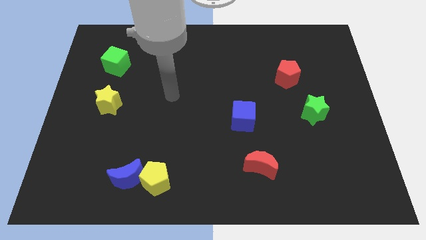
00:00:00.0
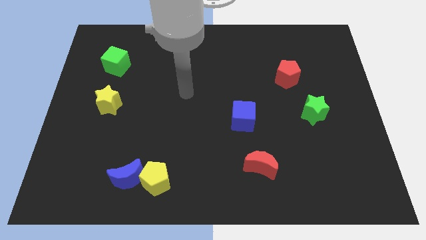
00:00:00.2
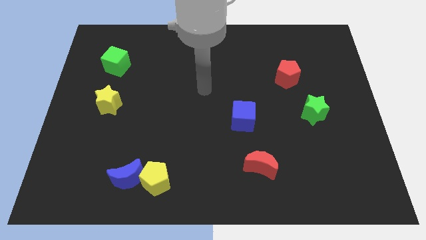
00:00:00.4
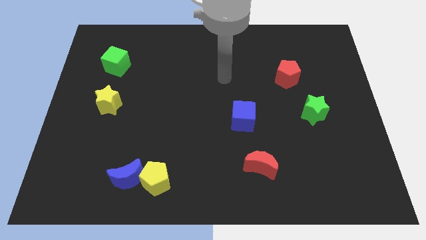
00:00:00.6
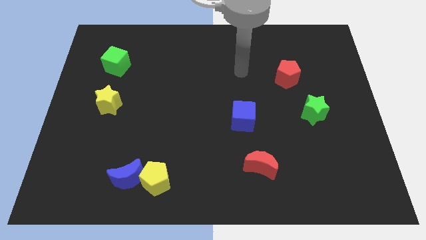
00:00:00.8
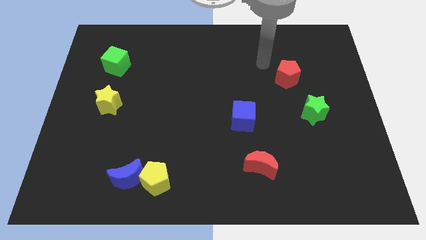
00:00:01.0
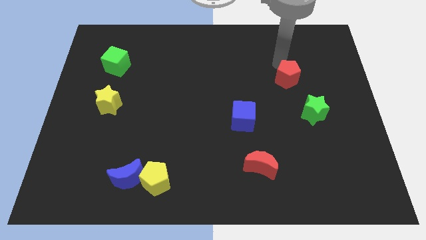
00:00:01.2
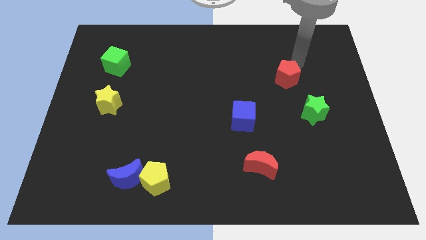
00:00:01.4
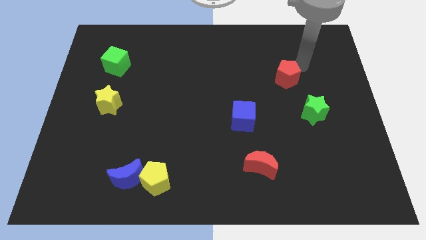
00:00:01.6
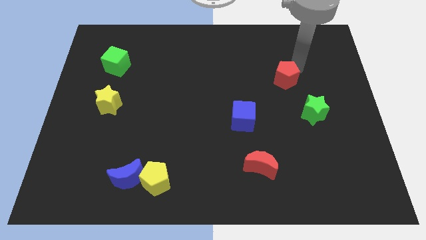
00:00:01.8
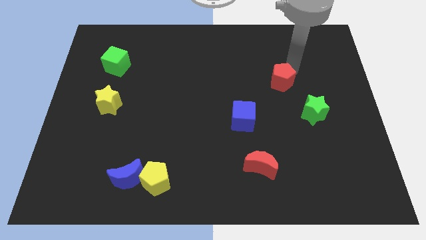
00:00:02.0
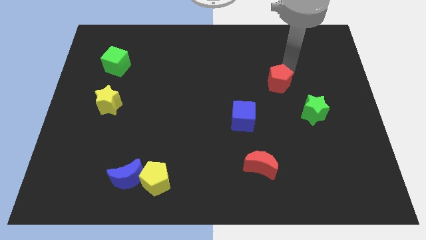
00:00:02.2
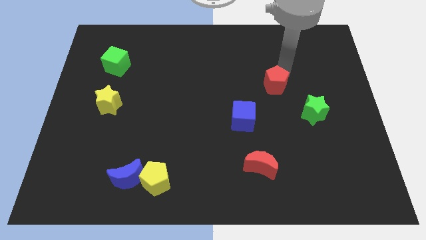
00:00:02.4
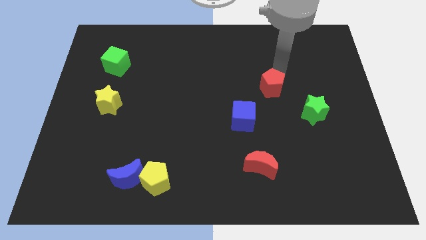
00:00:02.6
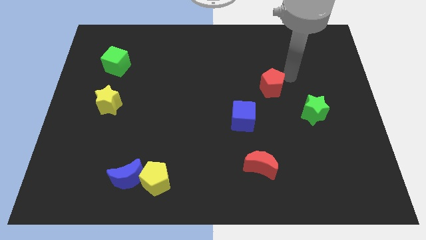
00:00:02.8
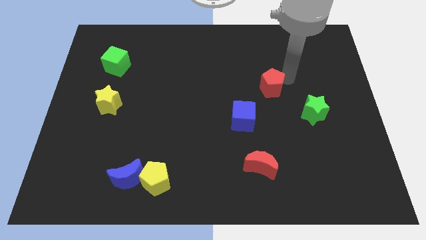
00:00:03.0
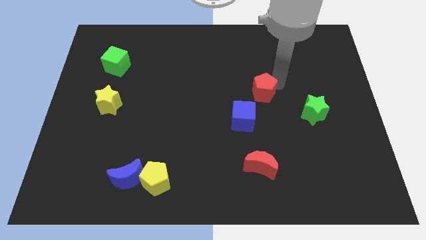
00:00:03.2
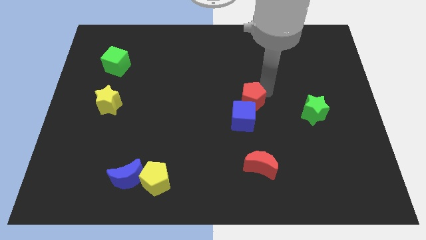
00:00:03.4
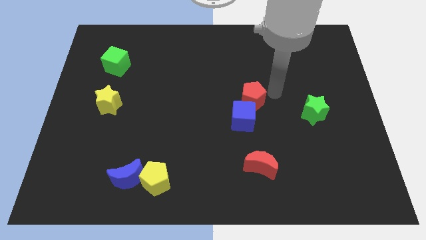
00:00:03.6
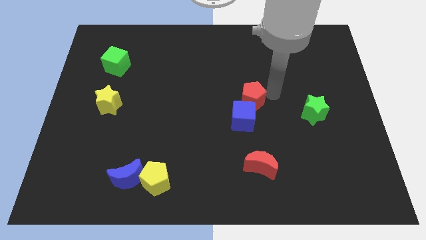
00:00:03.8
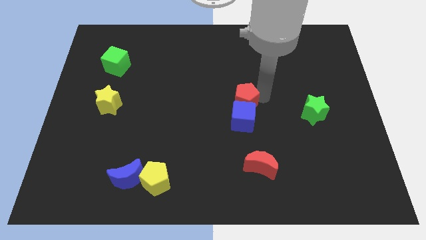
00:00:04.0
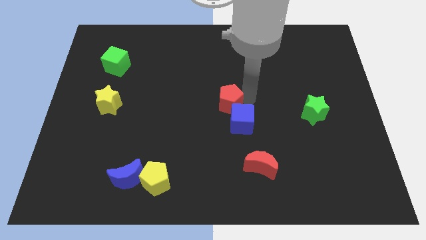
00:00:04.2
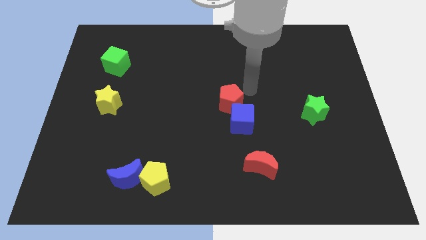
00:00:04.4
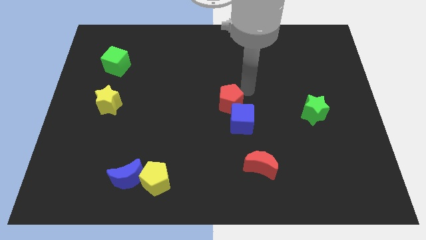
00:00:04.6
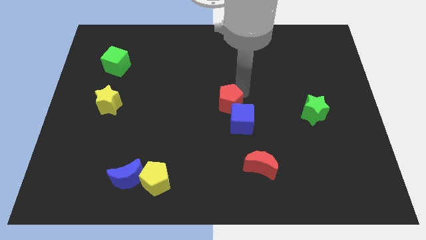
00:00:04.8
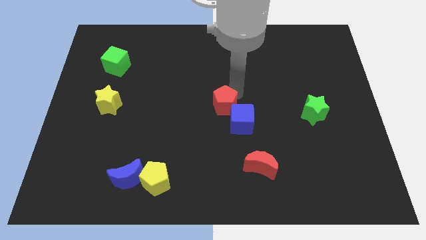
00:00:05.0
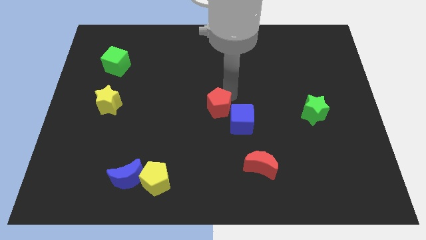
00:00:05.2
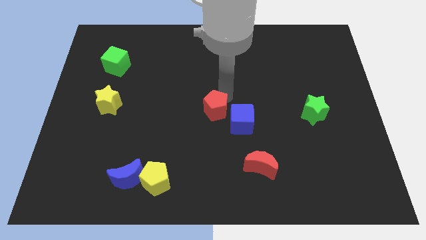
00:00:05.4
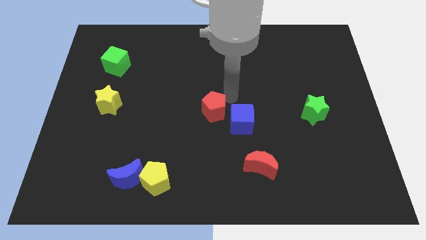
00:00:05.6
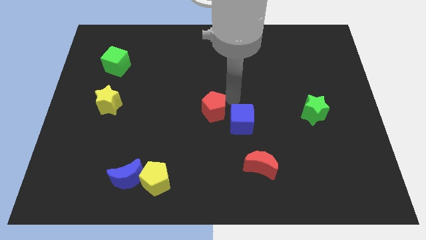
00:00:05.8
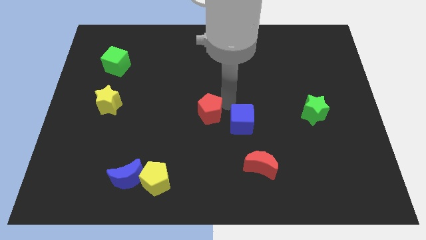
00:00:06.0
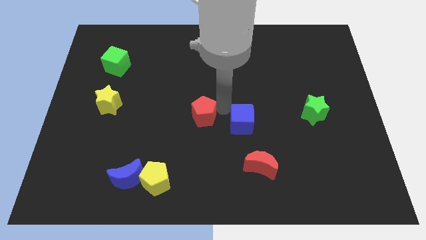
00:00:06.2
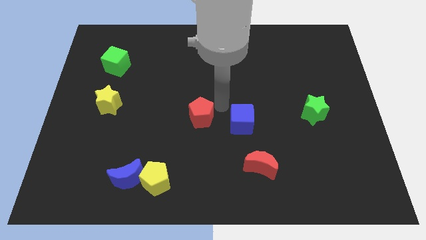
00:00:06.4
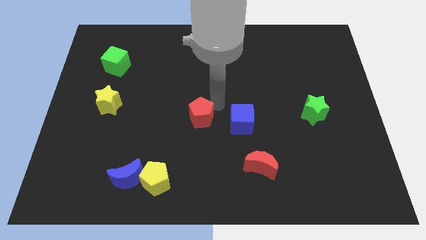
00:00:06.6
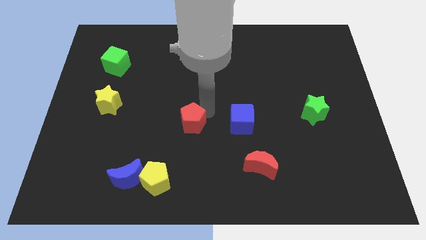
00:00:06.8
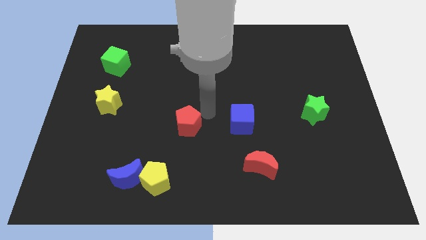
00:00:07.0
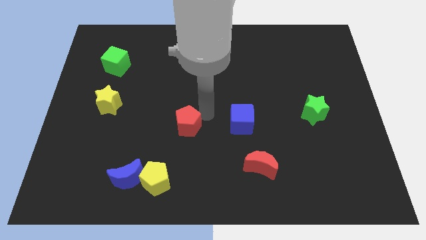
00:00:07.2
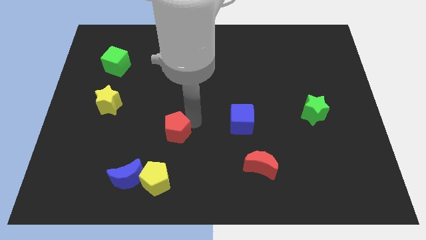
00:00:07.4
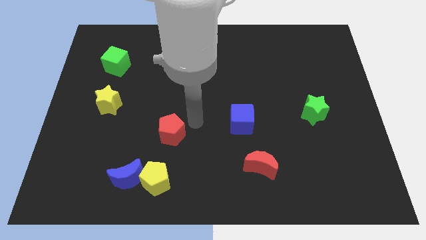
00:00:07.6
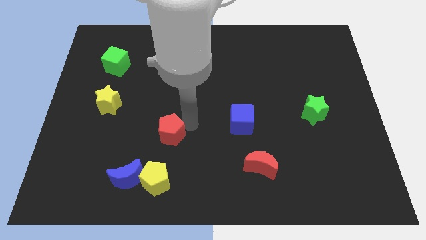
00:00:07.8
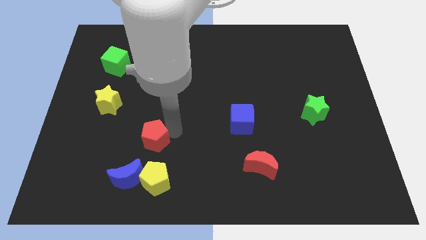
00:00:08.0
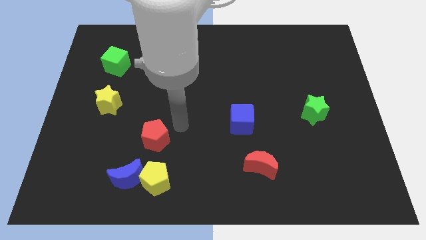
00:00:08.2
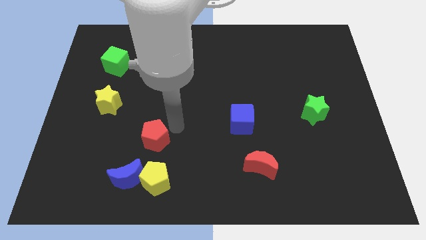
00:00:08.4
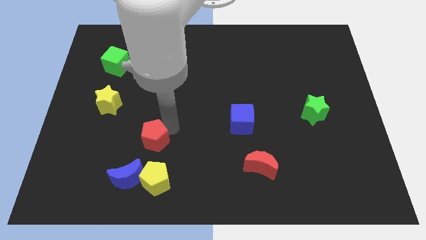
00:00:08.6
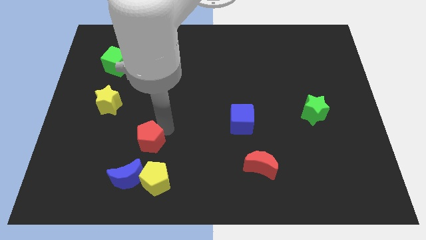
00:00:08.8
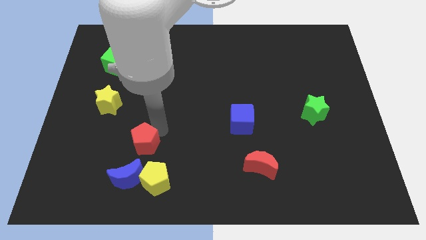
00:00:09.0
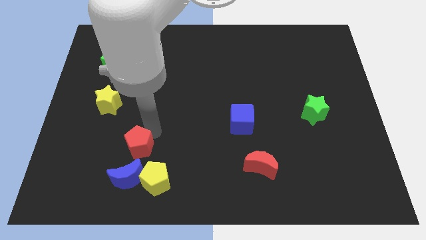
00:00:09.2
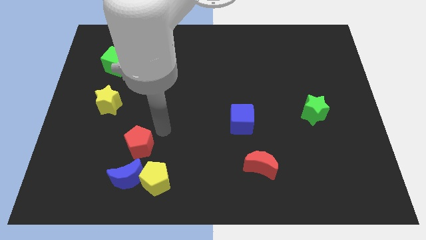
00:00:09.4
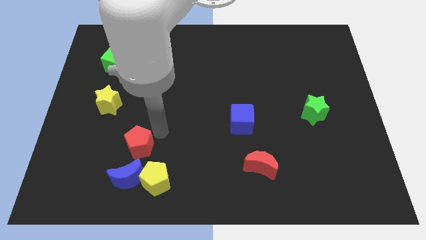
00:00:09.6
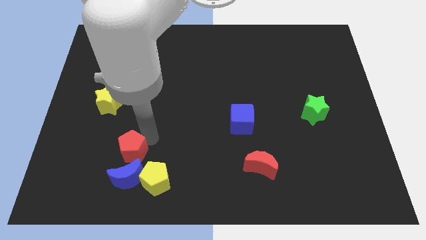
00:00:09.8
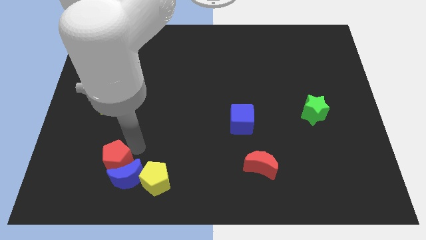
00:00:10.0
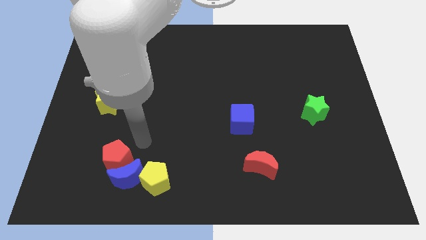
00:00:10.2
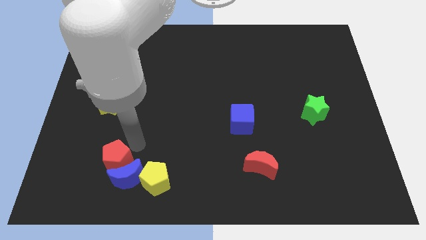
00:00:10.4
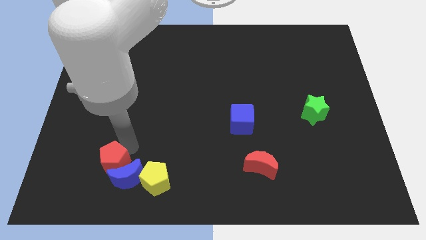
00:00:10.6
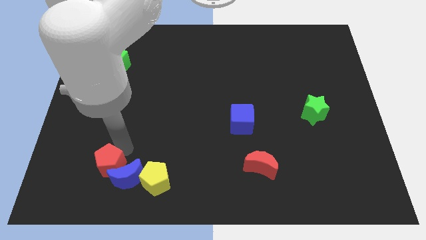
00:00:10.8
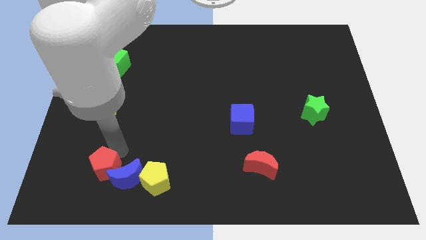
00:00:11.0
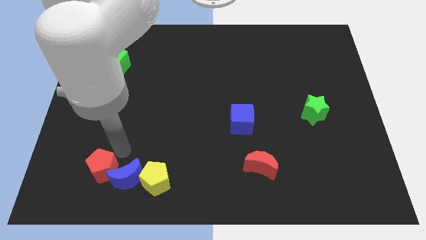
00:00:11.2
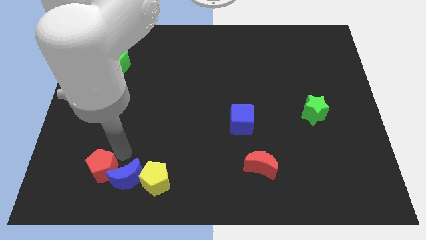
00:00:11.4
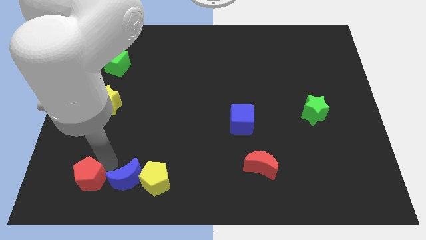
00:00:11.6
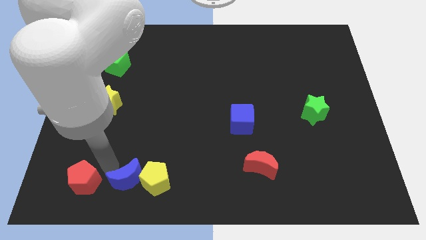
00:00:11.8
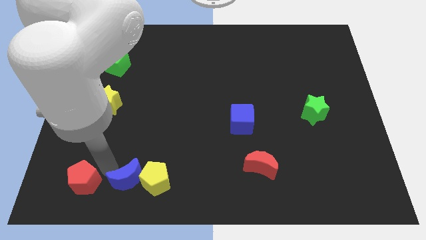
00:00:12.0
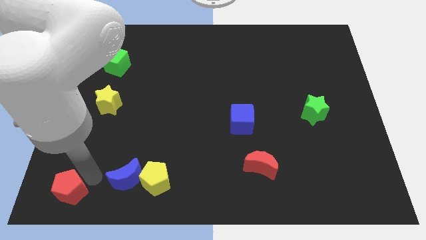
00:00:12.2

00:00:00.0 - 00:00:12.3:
put the red pentagon to the bottom left of the board

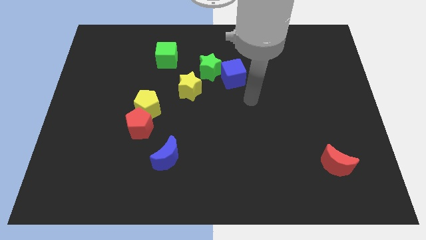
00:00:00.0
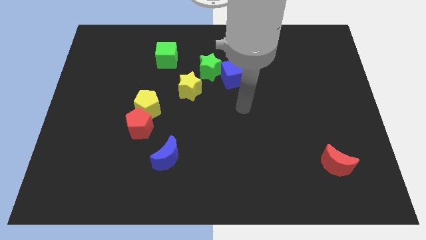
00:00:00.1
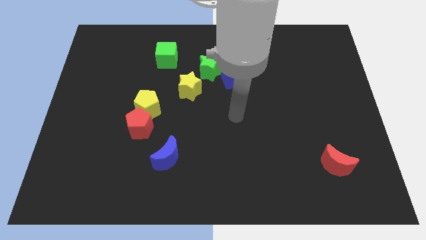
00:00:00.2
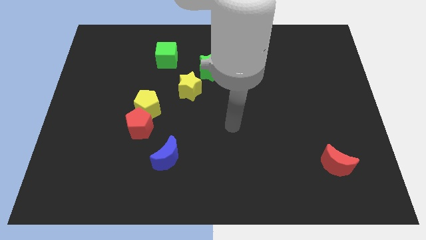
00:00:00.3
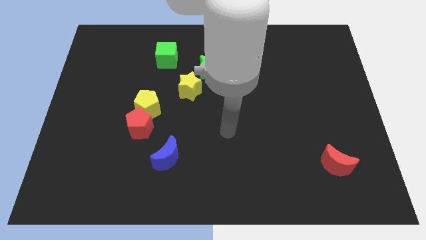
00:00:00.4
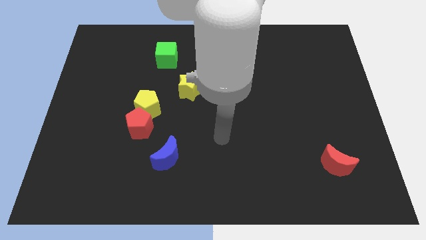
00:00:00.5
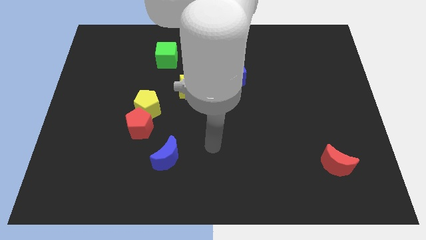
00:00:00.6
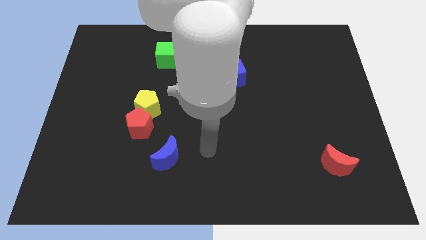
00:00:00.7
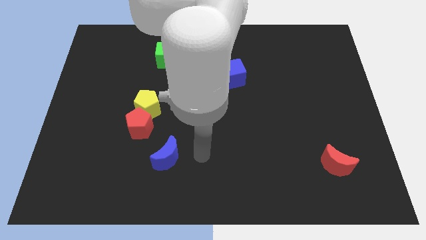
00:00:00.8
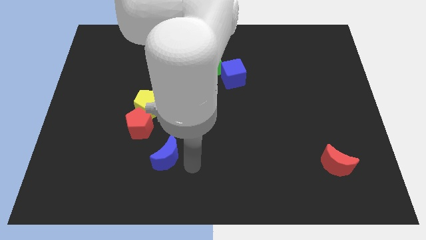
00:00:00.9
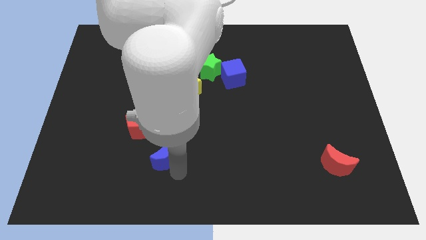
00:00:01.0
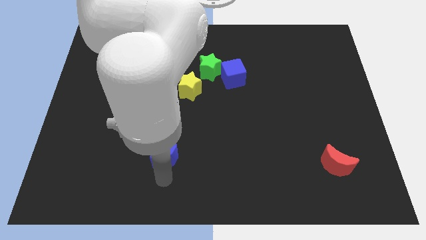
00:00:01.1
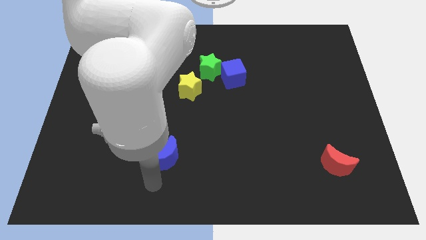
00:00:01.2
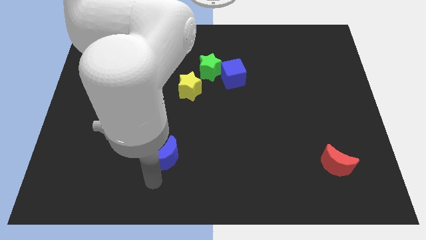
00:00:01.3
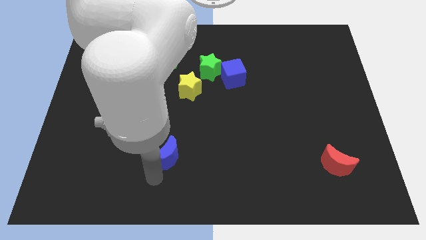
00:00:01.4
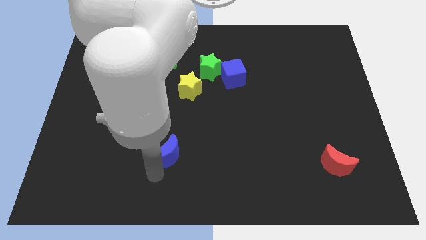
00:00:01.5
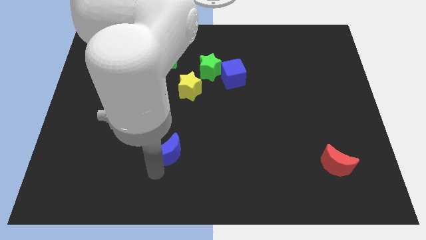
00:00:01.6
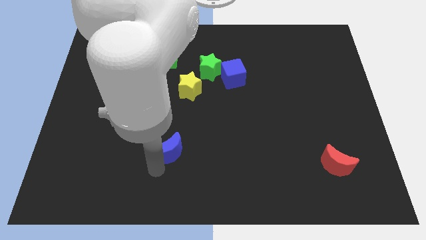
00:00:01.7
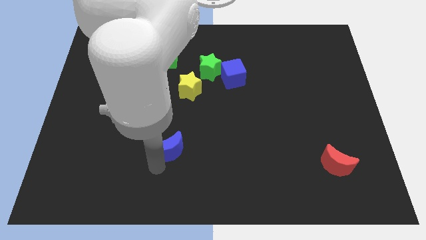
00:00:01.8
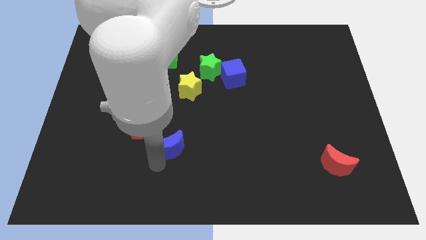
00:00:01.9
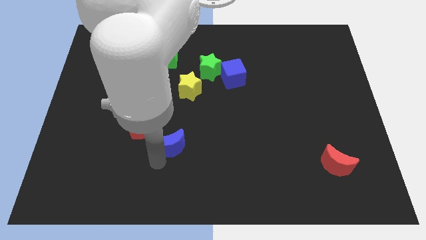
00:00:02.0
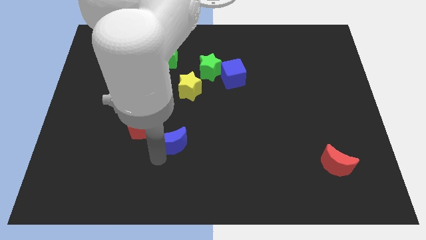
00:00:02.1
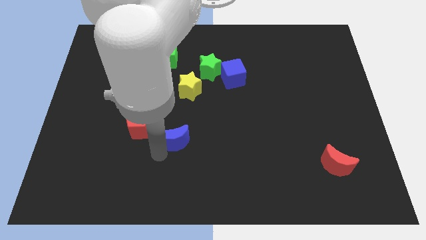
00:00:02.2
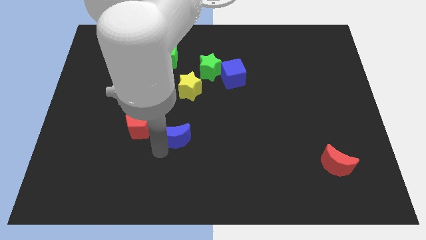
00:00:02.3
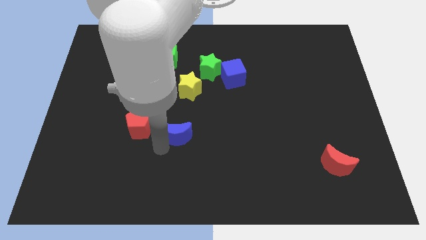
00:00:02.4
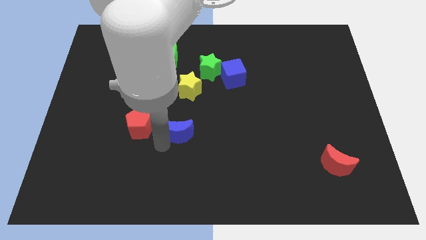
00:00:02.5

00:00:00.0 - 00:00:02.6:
put the blue moon to the center of the board
